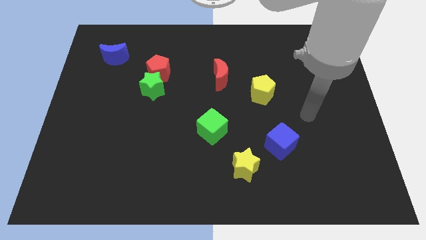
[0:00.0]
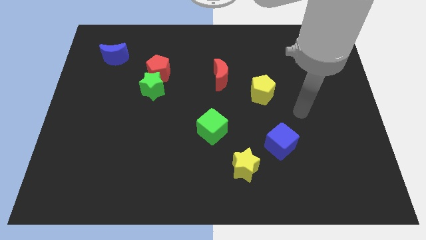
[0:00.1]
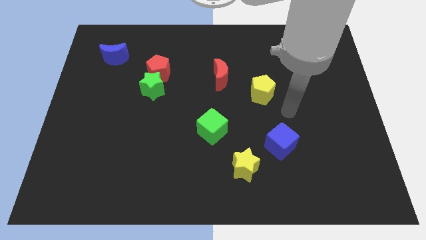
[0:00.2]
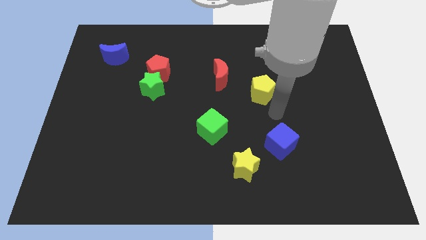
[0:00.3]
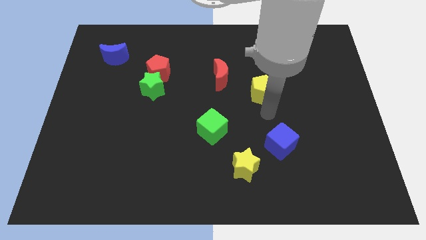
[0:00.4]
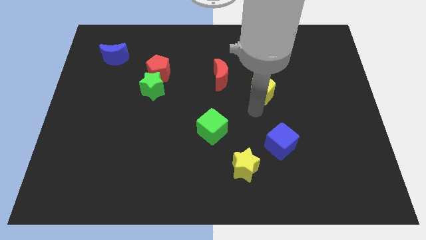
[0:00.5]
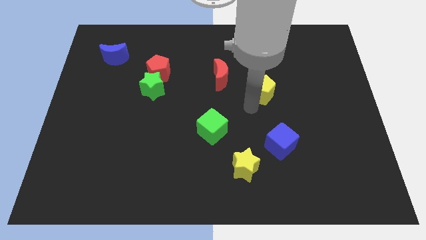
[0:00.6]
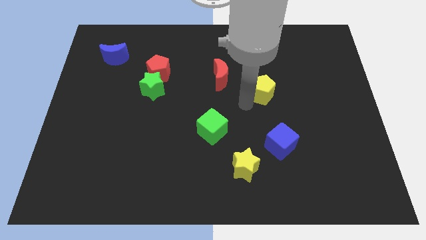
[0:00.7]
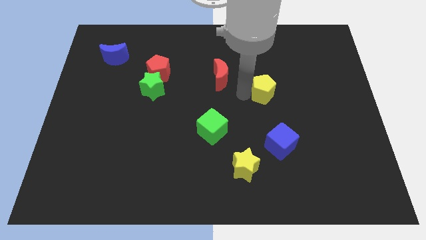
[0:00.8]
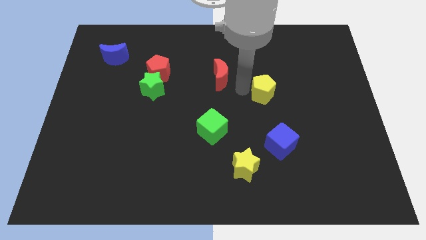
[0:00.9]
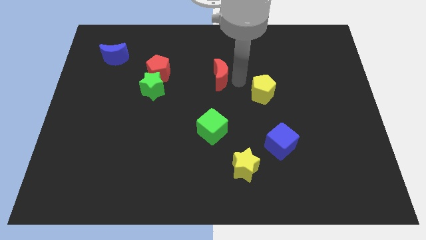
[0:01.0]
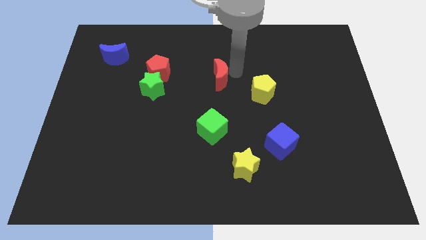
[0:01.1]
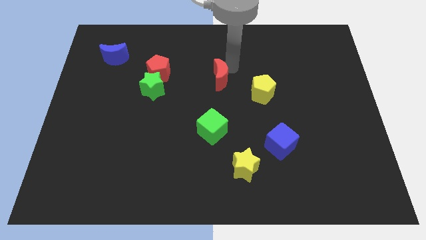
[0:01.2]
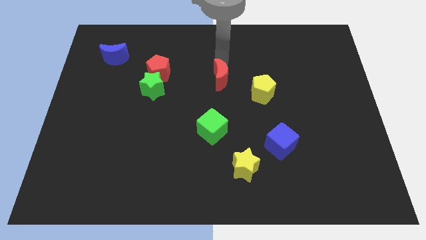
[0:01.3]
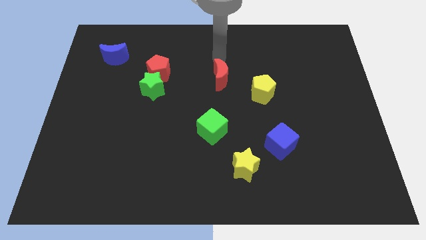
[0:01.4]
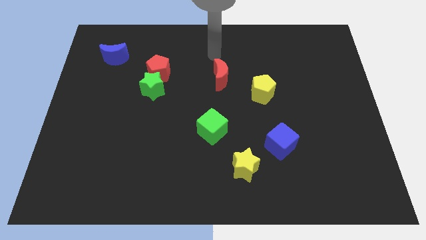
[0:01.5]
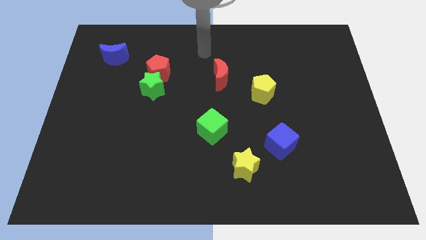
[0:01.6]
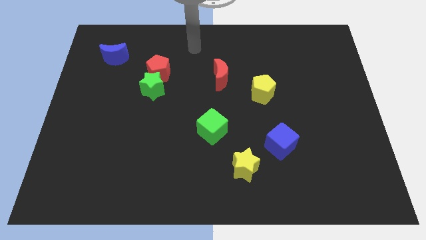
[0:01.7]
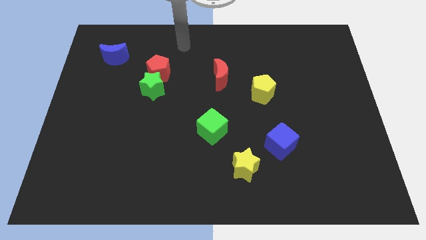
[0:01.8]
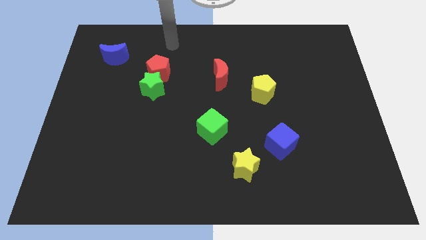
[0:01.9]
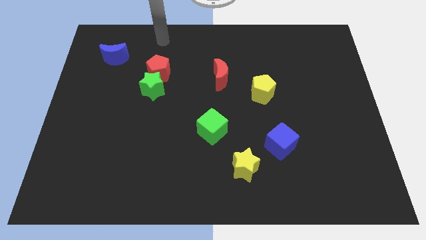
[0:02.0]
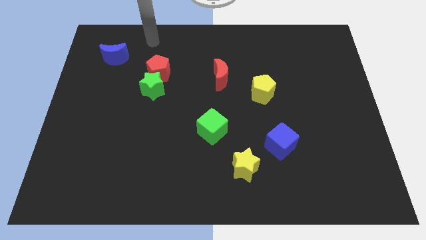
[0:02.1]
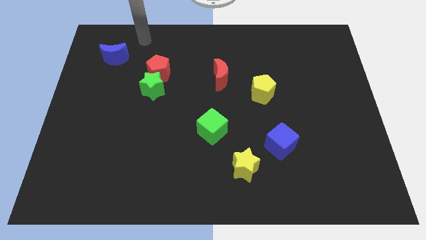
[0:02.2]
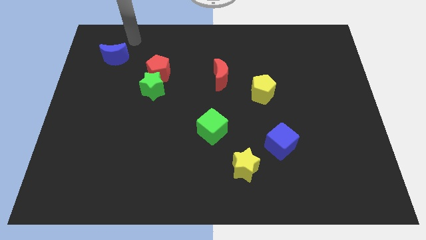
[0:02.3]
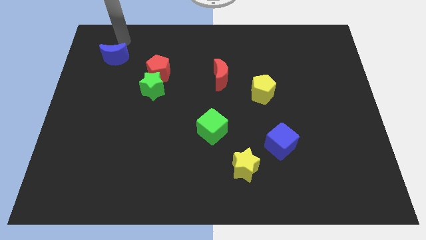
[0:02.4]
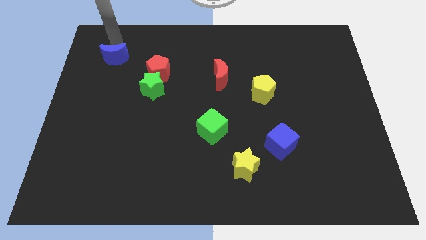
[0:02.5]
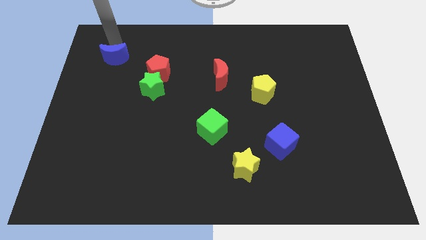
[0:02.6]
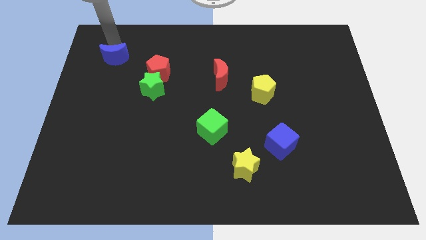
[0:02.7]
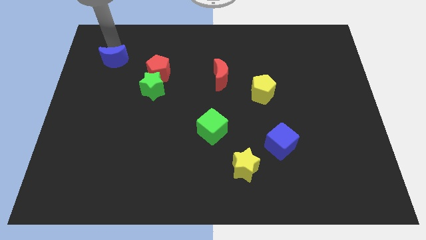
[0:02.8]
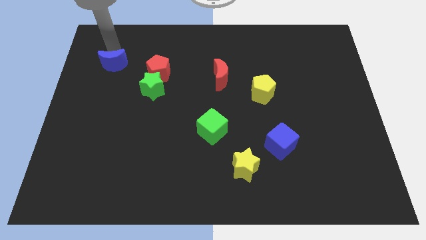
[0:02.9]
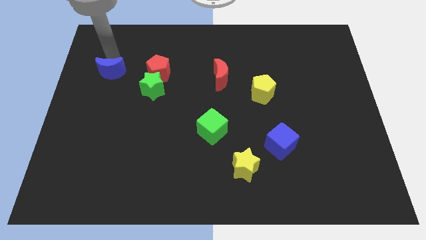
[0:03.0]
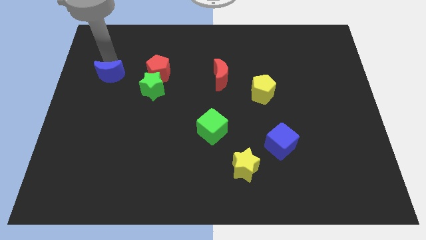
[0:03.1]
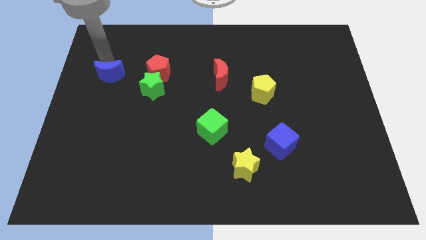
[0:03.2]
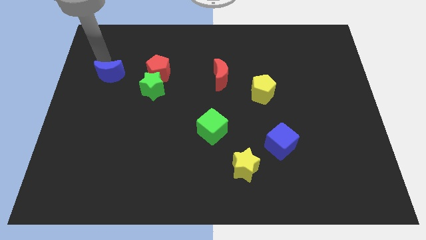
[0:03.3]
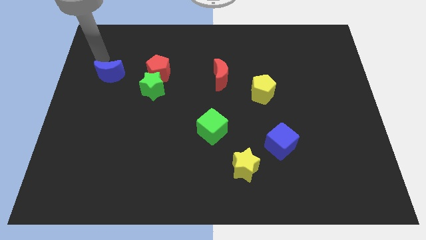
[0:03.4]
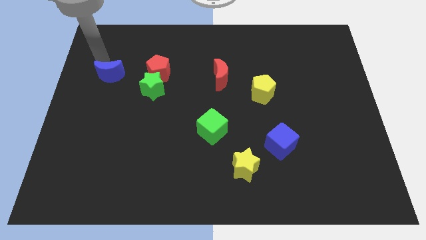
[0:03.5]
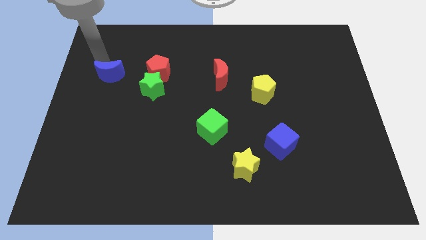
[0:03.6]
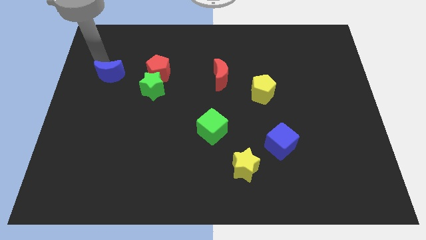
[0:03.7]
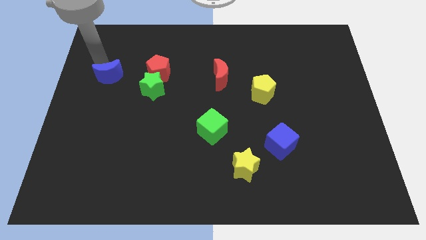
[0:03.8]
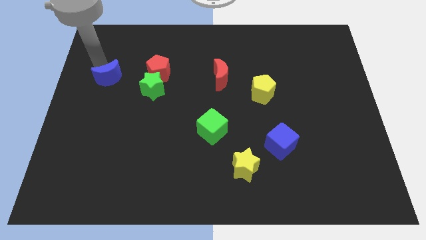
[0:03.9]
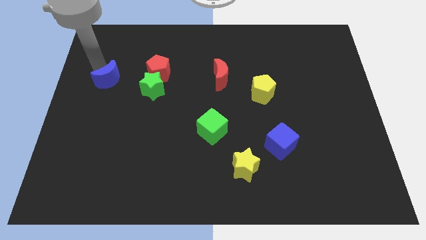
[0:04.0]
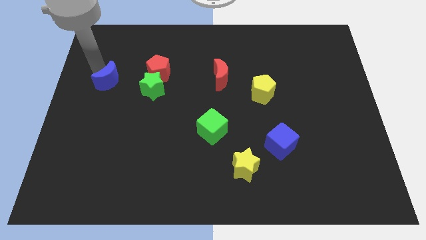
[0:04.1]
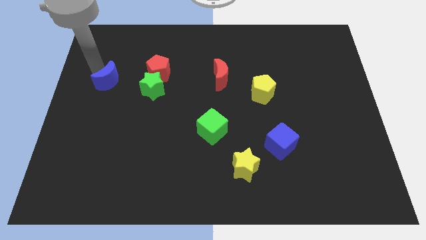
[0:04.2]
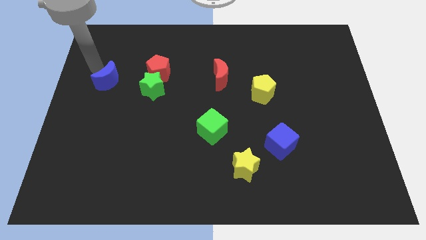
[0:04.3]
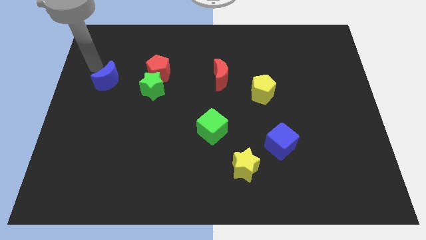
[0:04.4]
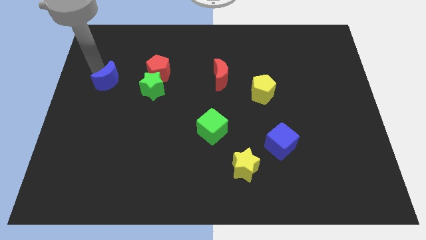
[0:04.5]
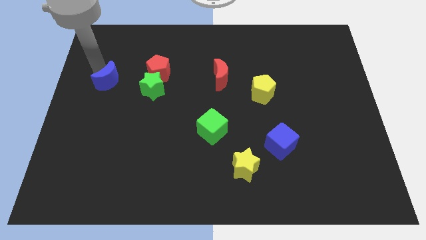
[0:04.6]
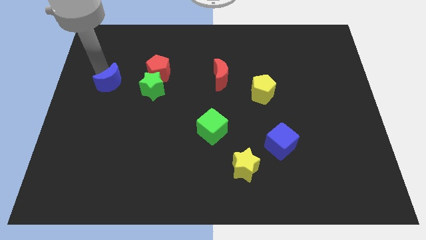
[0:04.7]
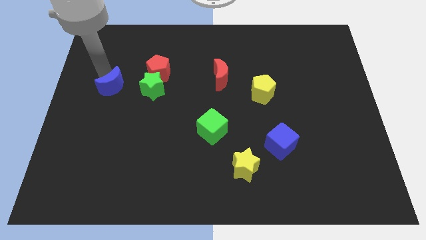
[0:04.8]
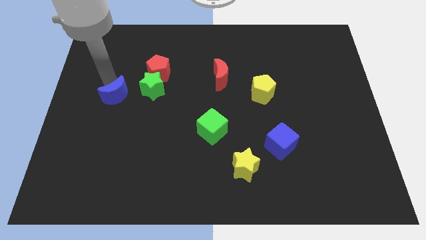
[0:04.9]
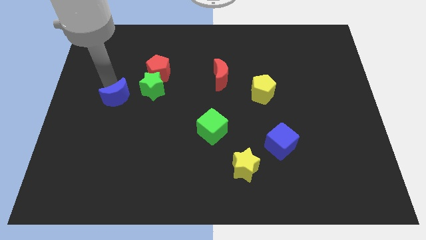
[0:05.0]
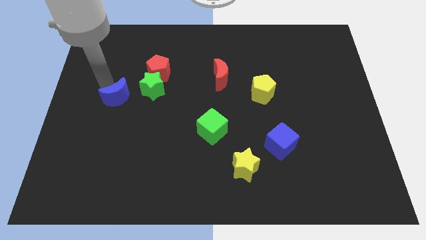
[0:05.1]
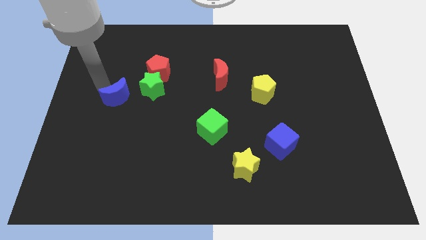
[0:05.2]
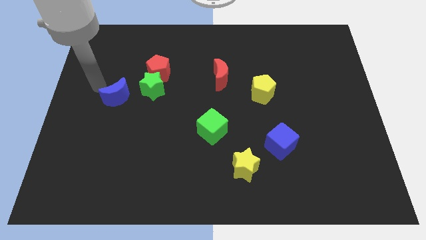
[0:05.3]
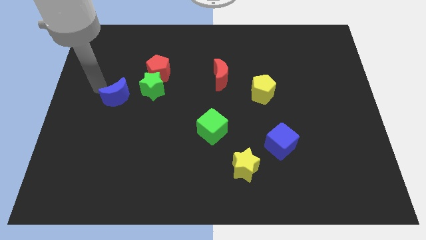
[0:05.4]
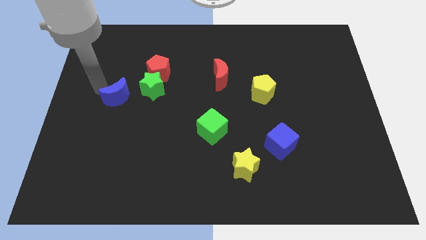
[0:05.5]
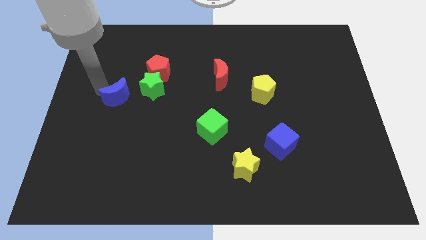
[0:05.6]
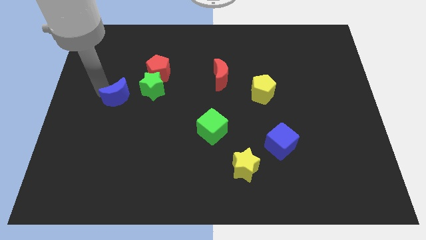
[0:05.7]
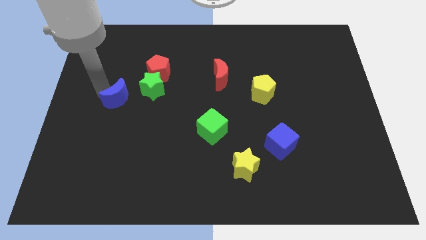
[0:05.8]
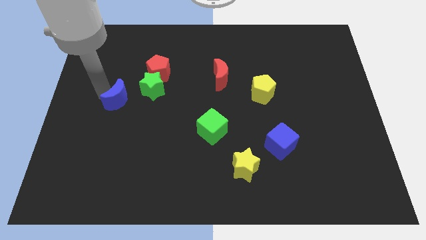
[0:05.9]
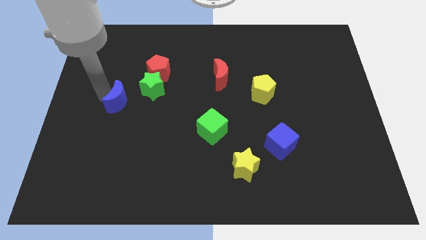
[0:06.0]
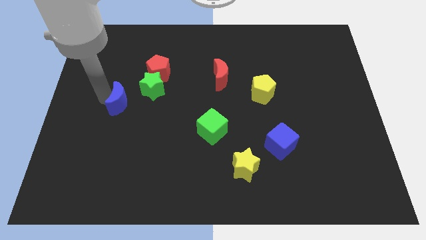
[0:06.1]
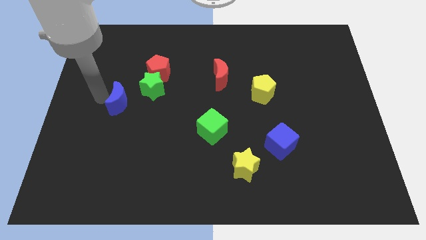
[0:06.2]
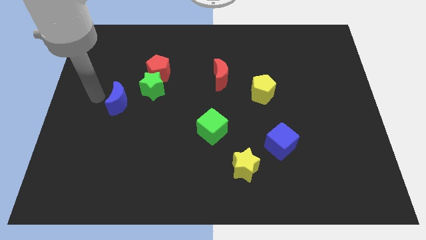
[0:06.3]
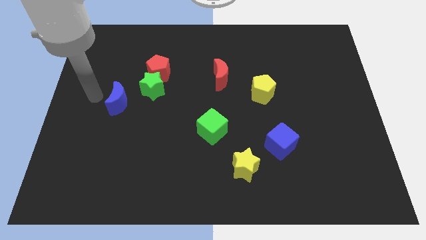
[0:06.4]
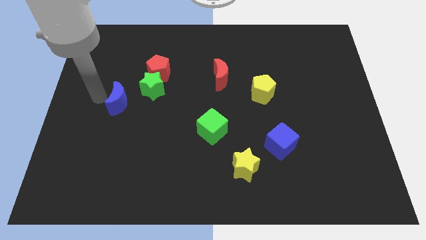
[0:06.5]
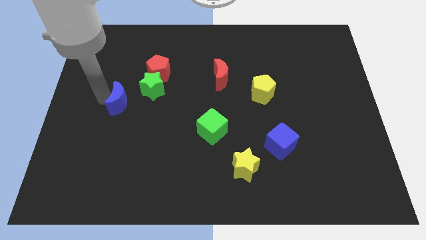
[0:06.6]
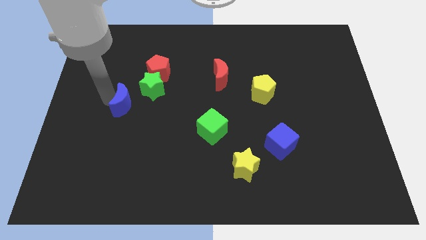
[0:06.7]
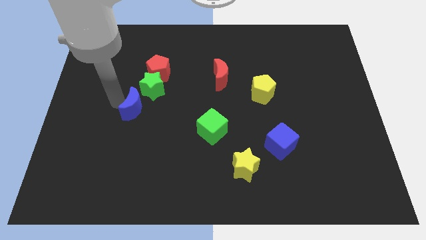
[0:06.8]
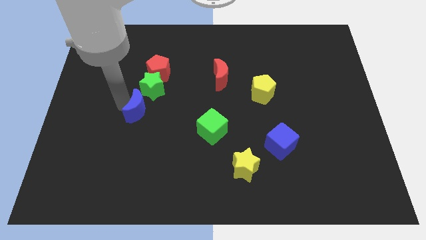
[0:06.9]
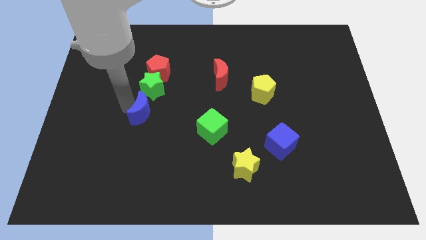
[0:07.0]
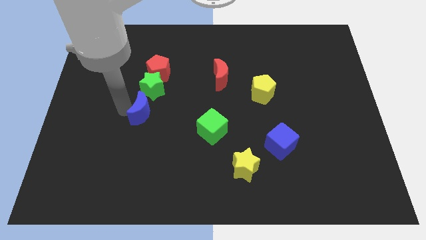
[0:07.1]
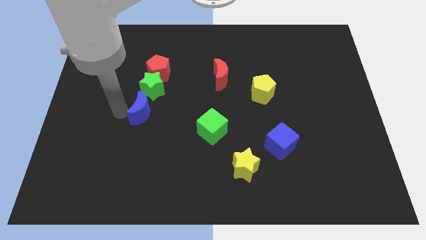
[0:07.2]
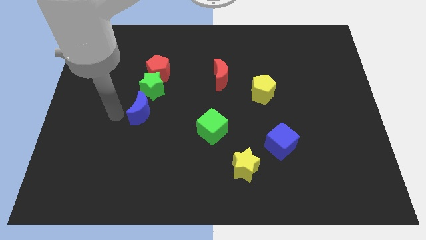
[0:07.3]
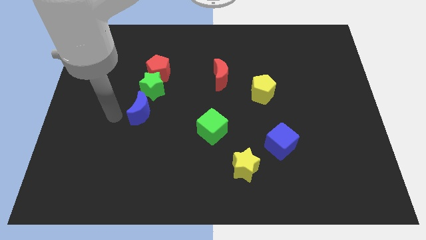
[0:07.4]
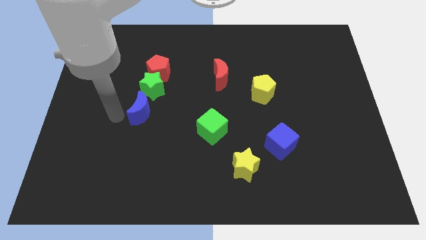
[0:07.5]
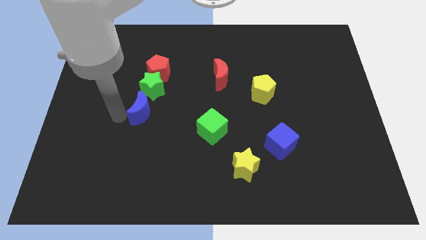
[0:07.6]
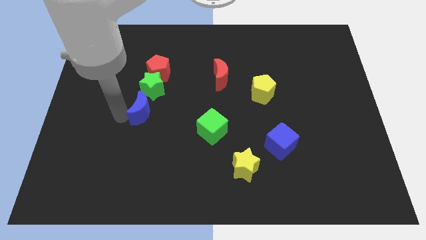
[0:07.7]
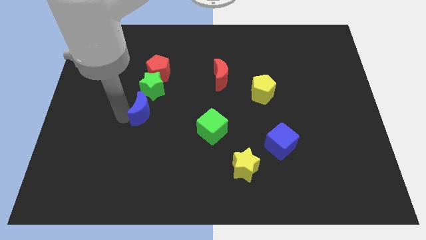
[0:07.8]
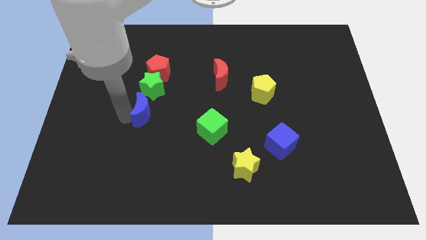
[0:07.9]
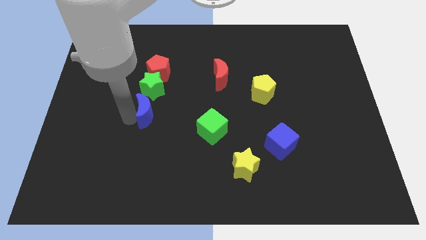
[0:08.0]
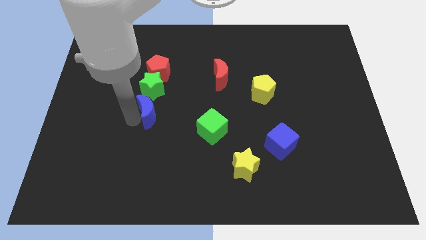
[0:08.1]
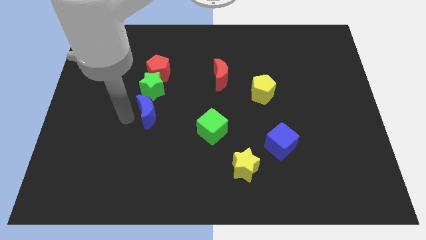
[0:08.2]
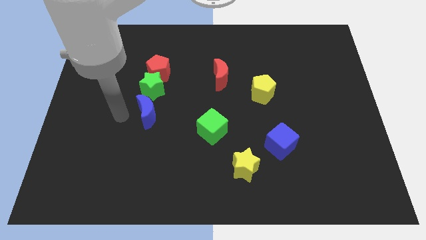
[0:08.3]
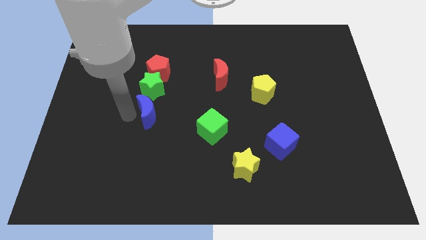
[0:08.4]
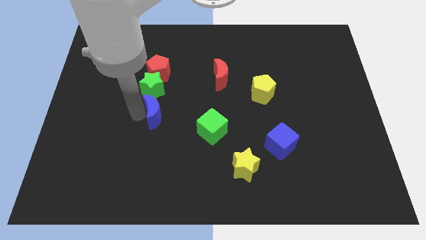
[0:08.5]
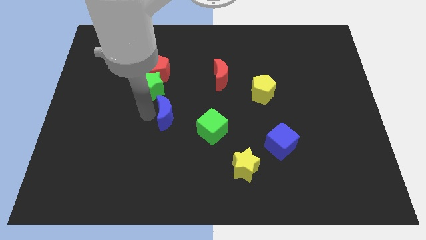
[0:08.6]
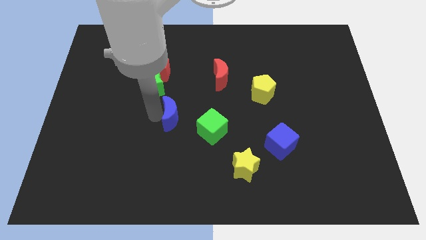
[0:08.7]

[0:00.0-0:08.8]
move the blue moon to the top left side of the green cube
